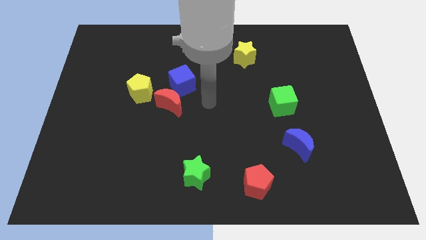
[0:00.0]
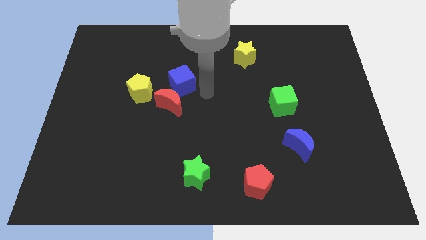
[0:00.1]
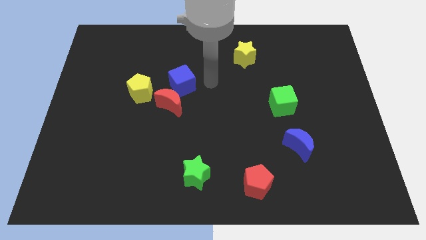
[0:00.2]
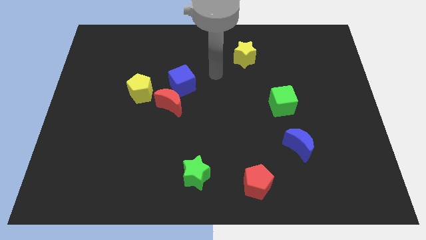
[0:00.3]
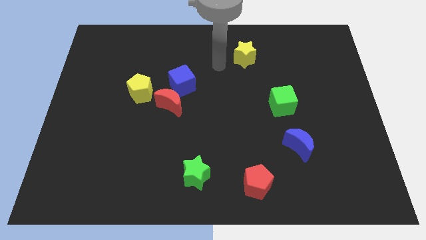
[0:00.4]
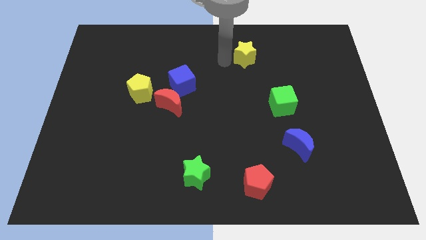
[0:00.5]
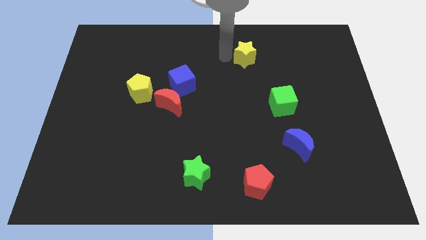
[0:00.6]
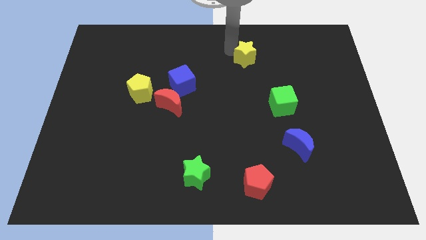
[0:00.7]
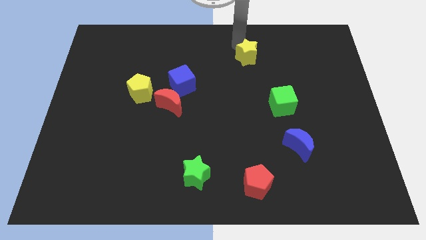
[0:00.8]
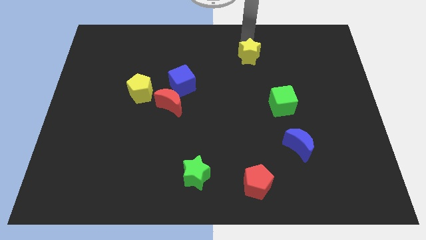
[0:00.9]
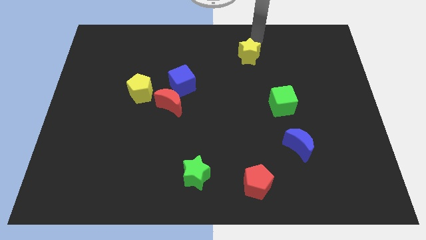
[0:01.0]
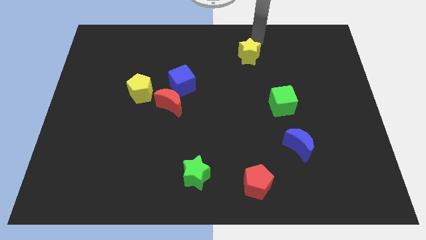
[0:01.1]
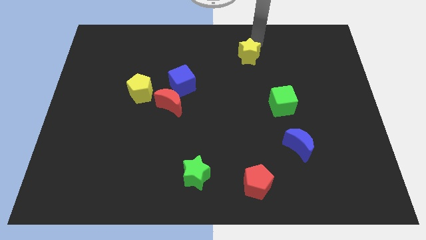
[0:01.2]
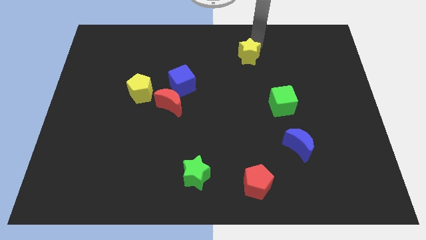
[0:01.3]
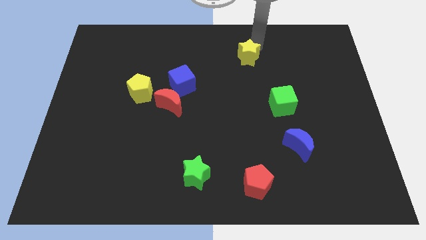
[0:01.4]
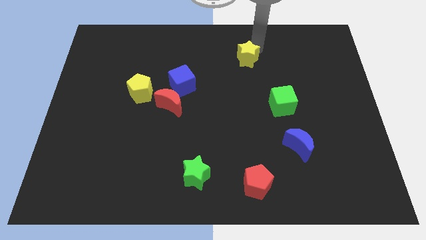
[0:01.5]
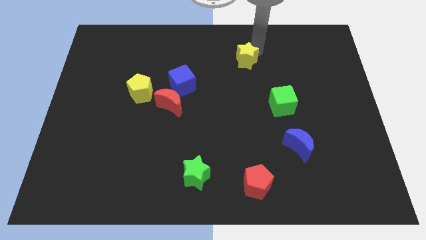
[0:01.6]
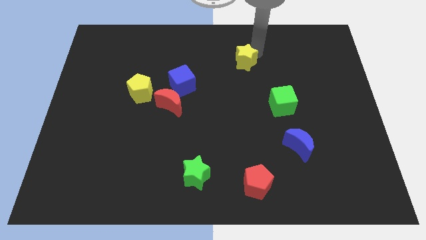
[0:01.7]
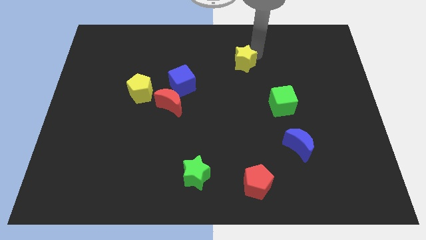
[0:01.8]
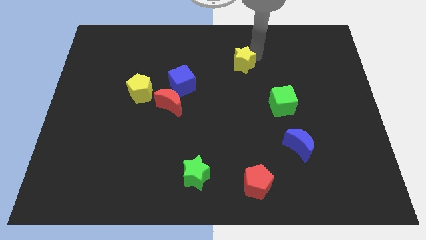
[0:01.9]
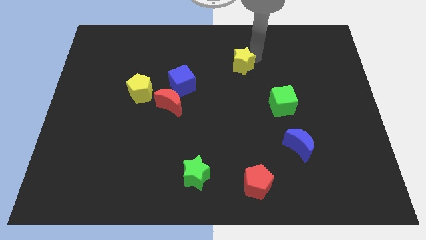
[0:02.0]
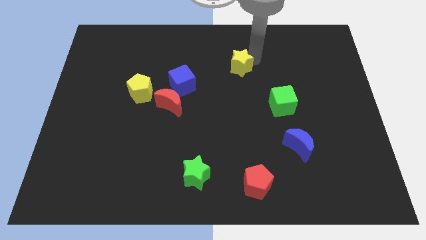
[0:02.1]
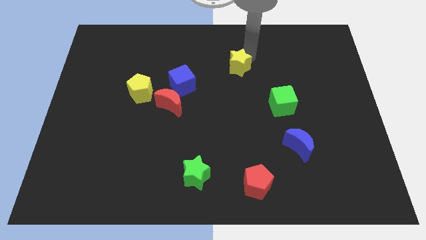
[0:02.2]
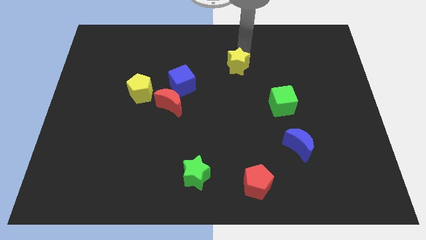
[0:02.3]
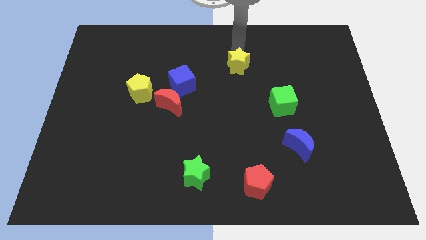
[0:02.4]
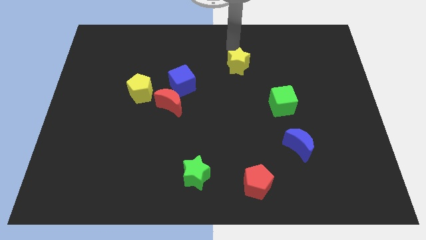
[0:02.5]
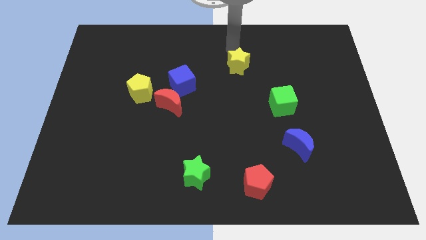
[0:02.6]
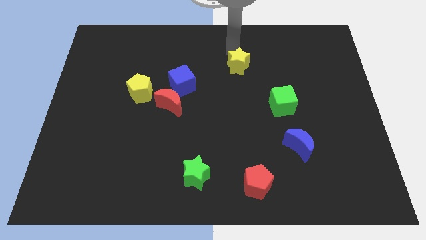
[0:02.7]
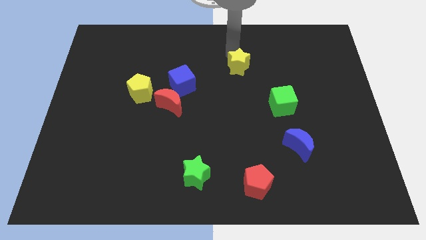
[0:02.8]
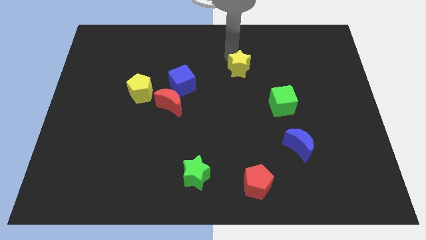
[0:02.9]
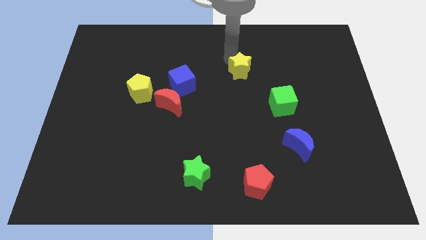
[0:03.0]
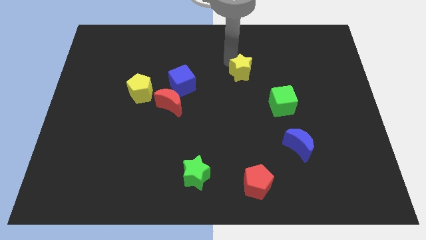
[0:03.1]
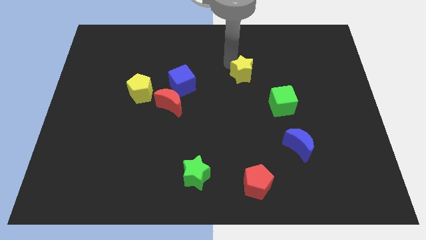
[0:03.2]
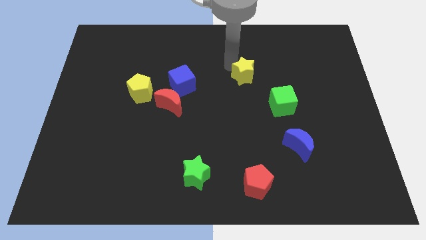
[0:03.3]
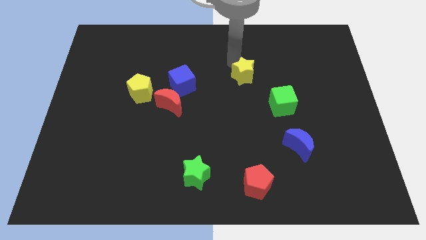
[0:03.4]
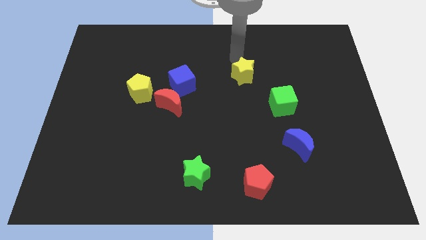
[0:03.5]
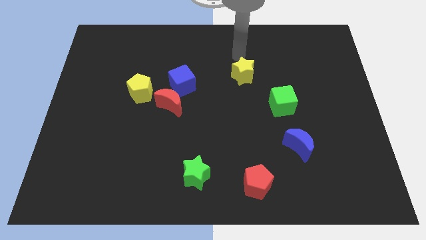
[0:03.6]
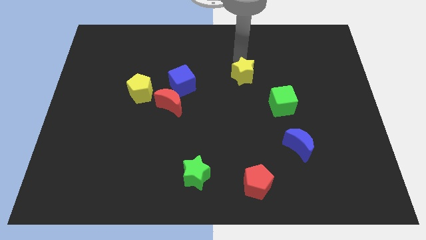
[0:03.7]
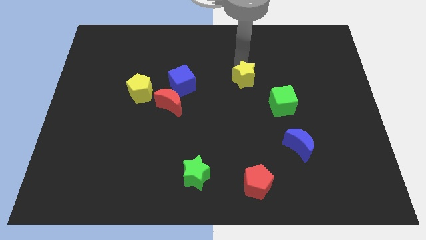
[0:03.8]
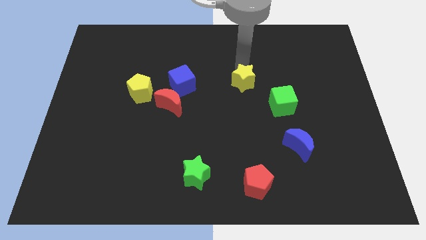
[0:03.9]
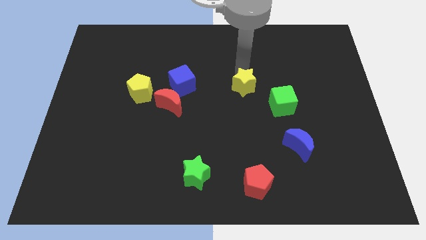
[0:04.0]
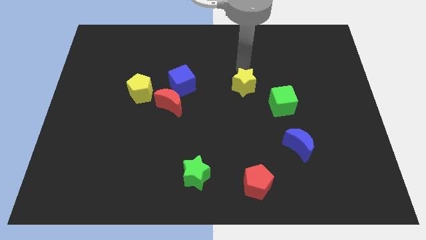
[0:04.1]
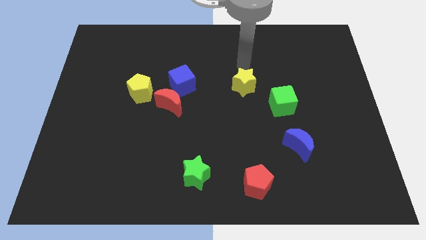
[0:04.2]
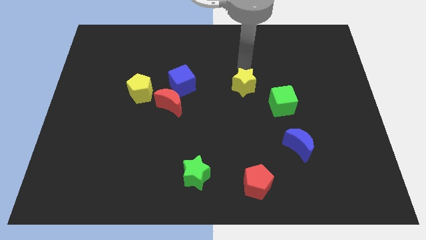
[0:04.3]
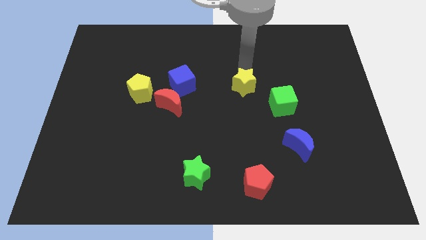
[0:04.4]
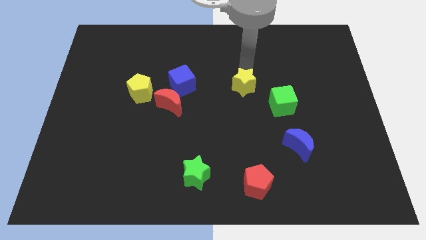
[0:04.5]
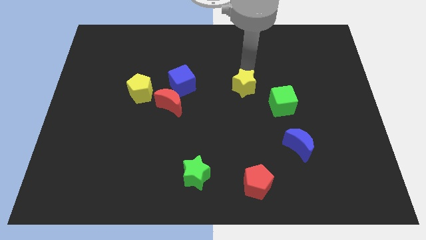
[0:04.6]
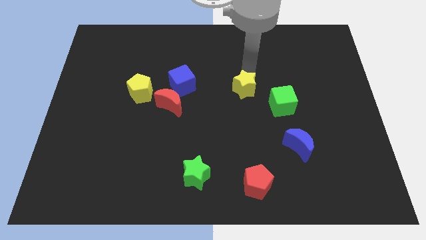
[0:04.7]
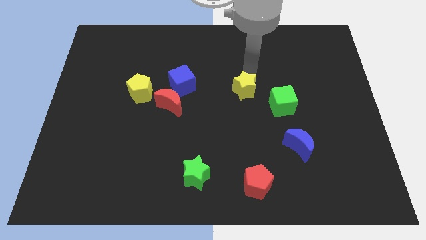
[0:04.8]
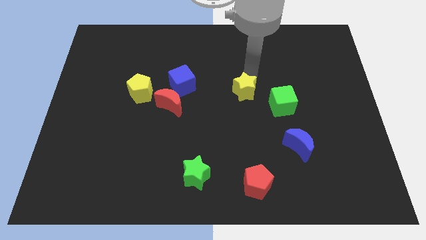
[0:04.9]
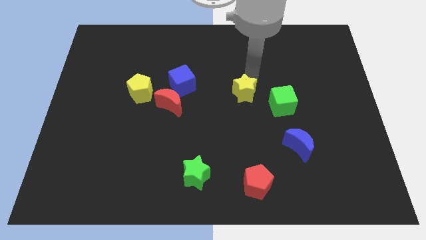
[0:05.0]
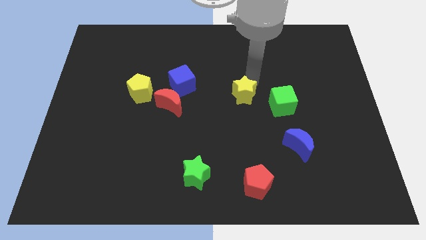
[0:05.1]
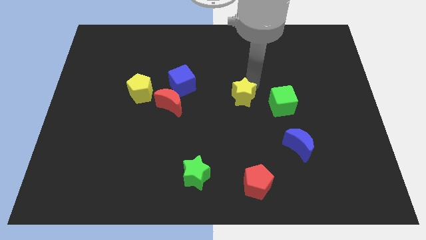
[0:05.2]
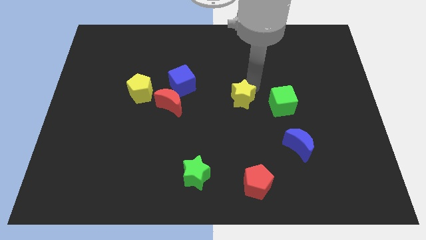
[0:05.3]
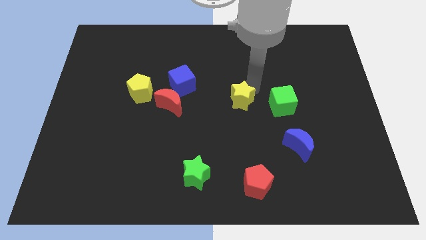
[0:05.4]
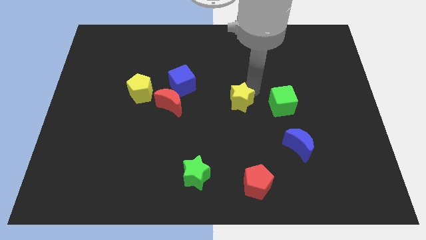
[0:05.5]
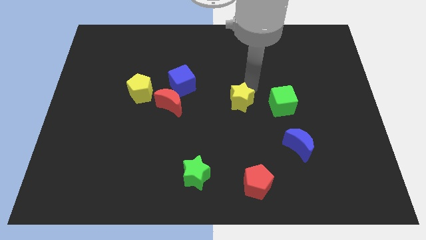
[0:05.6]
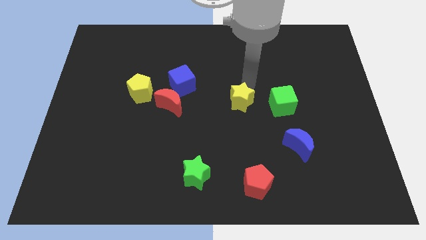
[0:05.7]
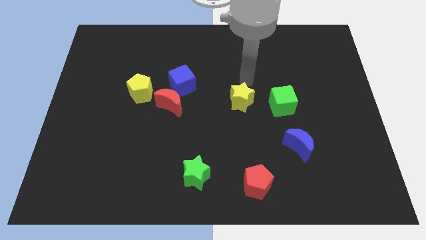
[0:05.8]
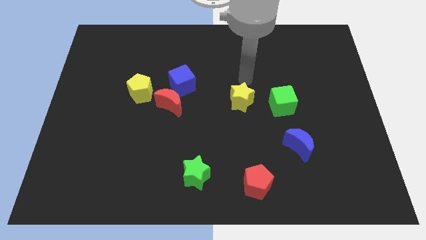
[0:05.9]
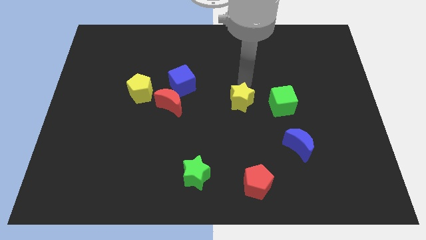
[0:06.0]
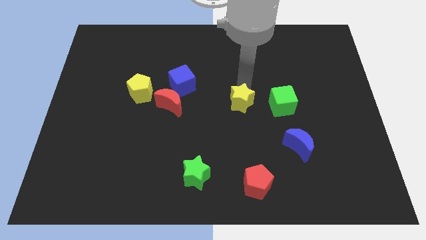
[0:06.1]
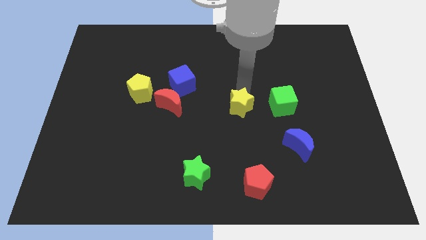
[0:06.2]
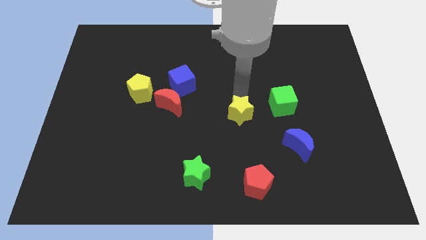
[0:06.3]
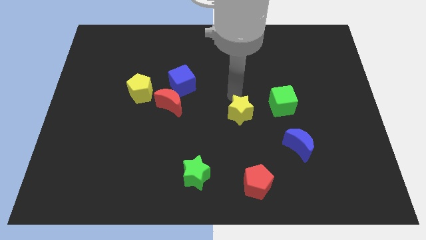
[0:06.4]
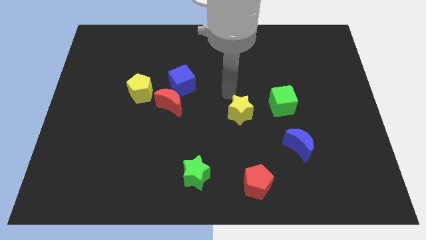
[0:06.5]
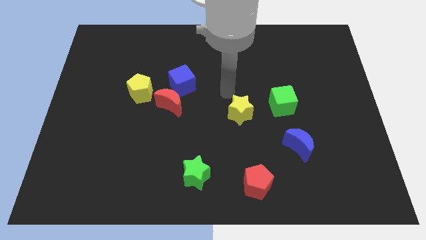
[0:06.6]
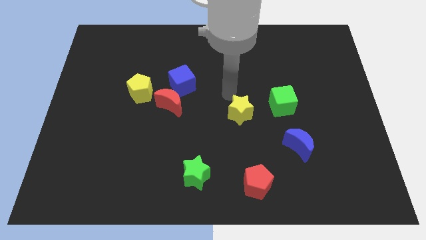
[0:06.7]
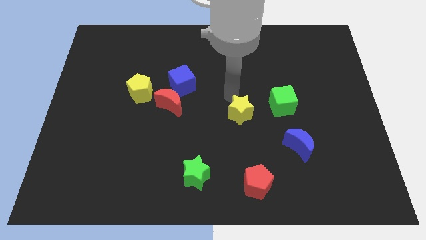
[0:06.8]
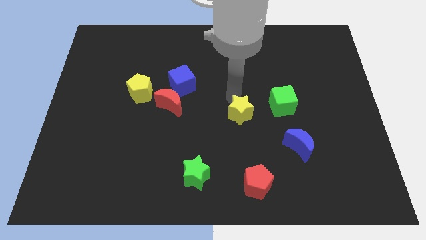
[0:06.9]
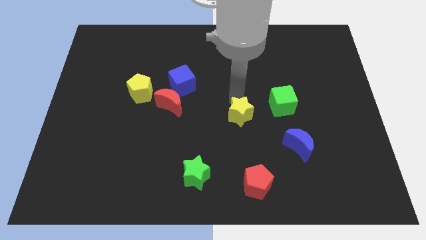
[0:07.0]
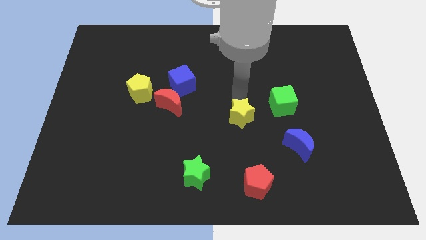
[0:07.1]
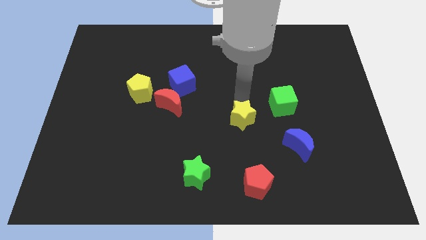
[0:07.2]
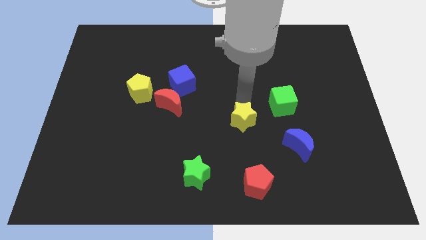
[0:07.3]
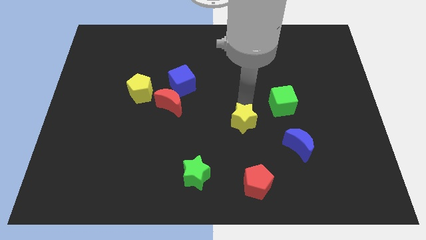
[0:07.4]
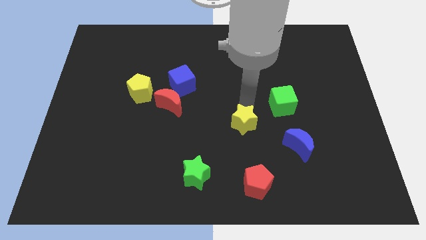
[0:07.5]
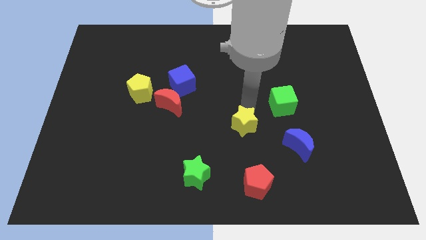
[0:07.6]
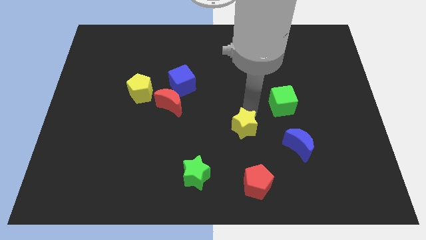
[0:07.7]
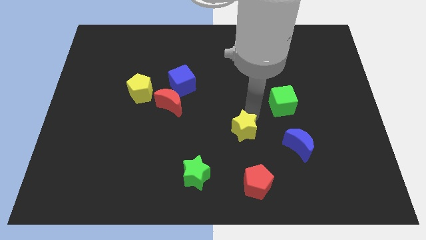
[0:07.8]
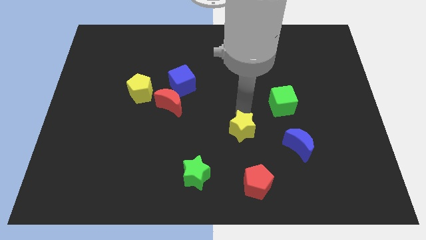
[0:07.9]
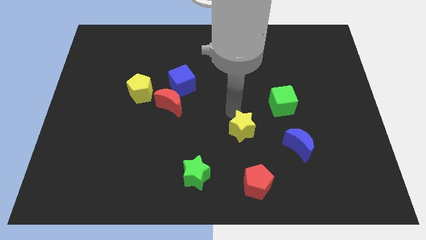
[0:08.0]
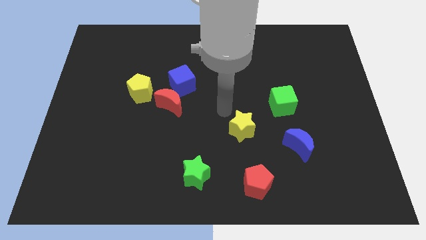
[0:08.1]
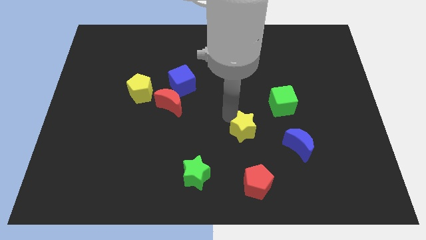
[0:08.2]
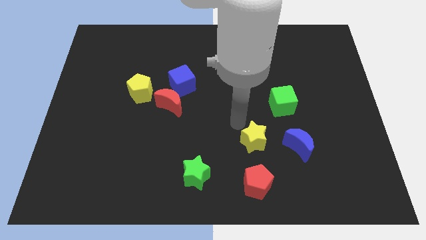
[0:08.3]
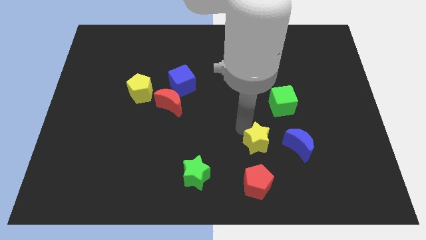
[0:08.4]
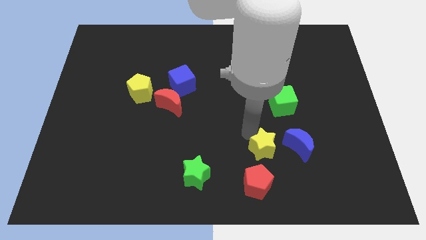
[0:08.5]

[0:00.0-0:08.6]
slide the yellow star diagonally up and to the right of the red pentagon
